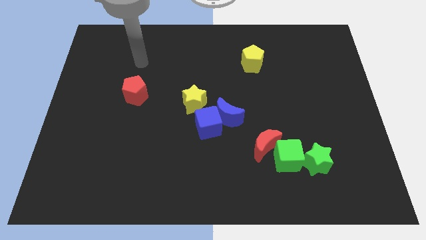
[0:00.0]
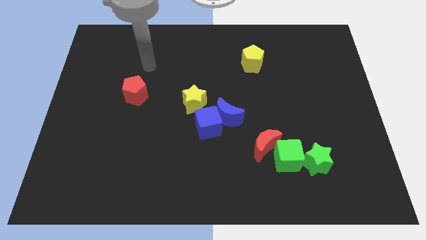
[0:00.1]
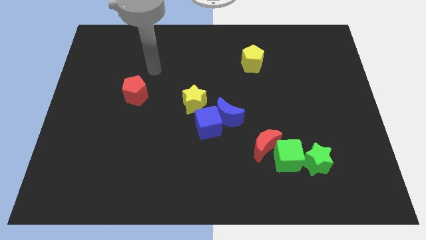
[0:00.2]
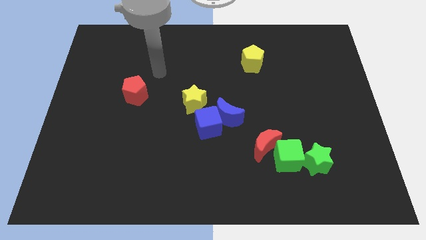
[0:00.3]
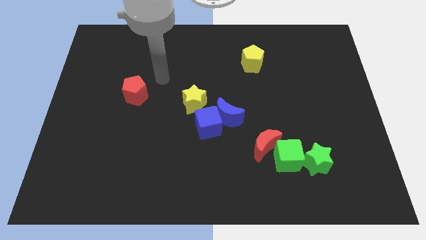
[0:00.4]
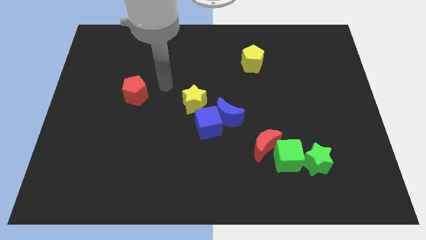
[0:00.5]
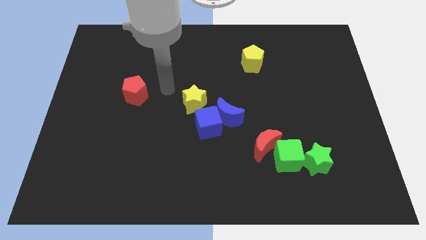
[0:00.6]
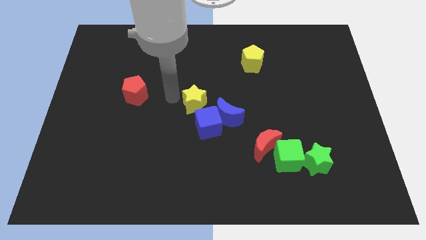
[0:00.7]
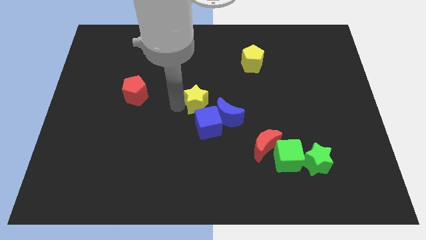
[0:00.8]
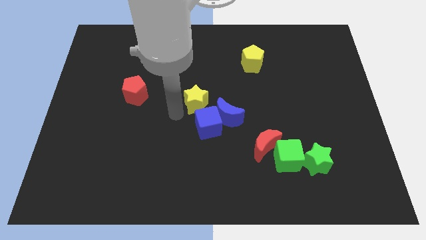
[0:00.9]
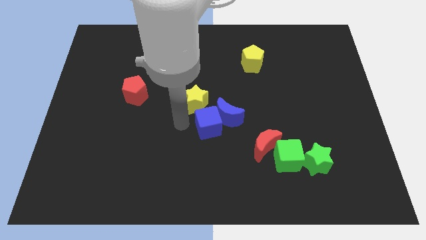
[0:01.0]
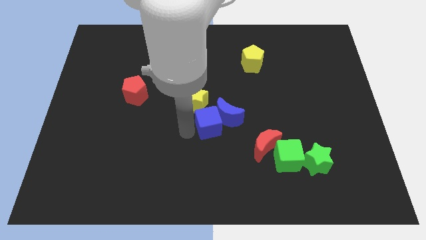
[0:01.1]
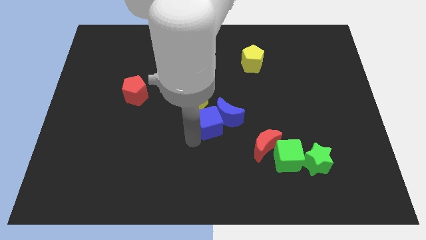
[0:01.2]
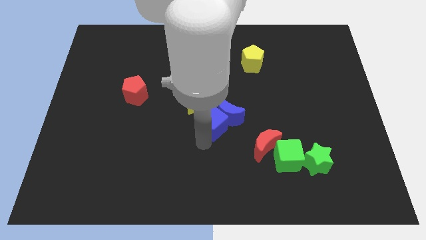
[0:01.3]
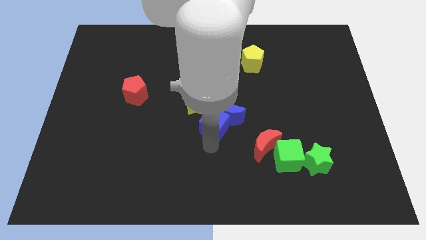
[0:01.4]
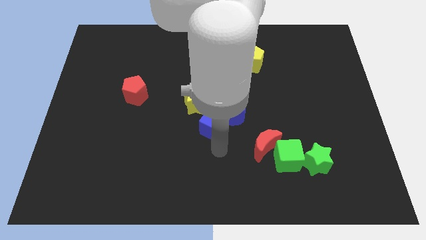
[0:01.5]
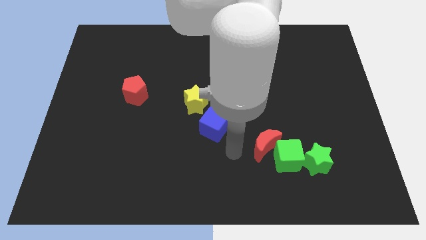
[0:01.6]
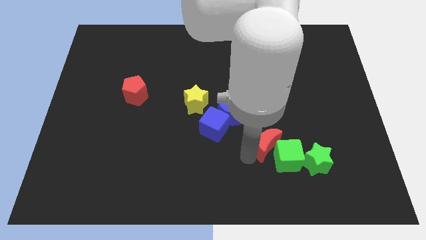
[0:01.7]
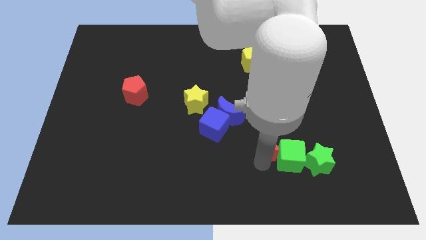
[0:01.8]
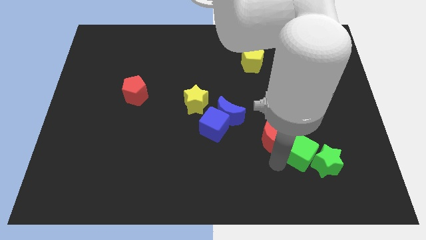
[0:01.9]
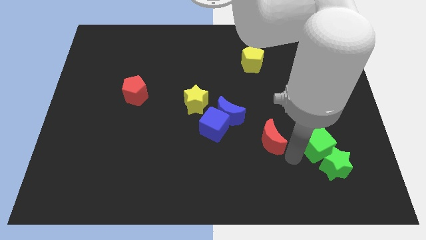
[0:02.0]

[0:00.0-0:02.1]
move the red moon away from the green cube

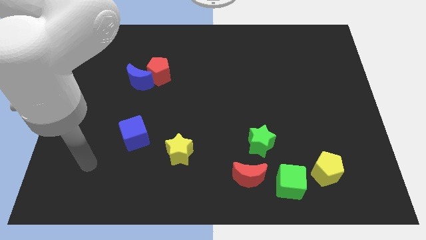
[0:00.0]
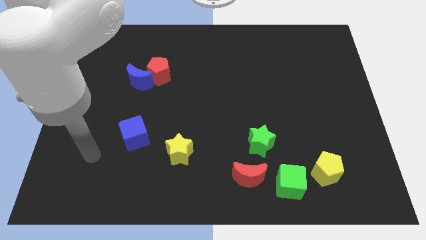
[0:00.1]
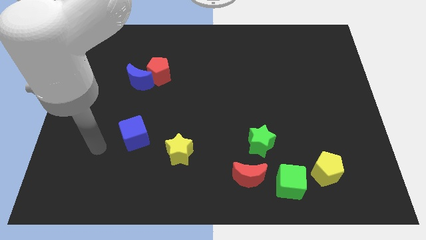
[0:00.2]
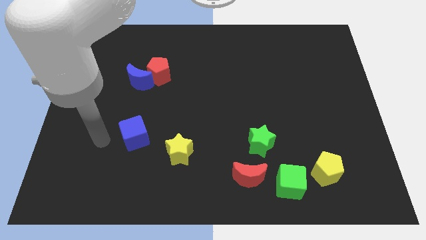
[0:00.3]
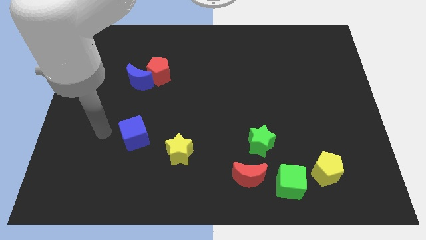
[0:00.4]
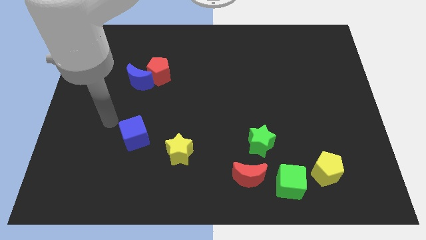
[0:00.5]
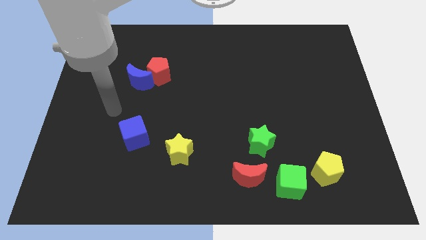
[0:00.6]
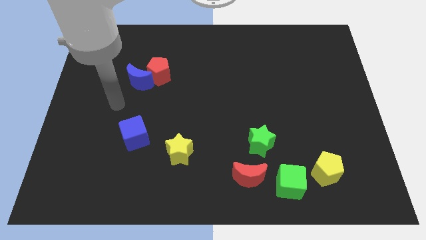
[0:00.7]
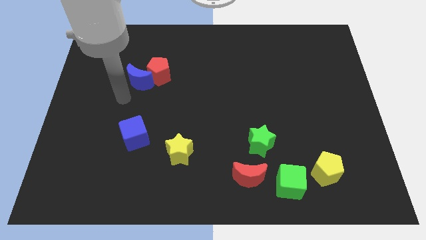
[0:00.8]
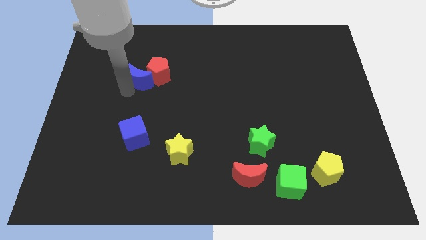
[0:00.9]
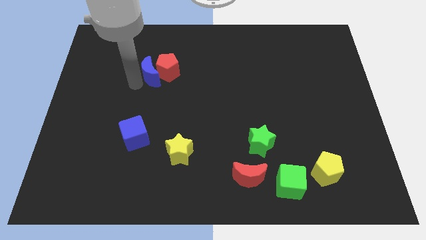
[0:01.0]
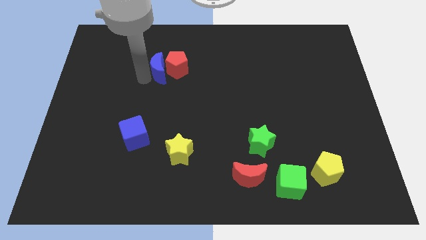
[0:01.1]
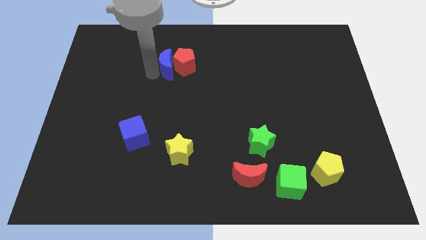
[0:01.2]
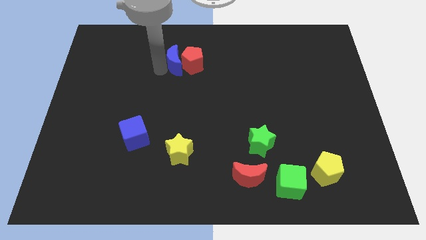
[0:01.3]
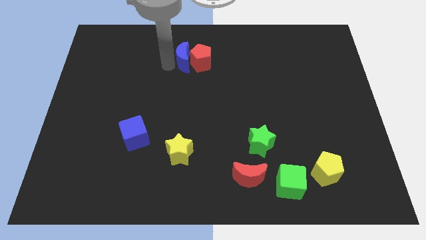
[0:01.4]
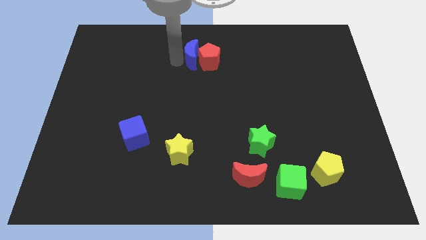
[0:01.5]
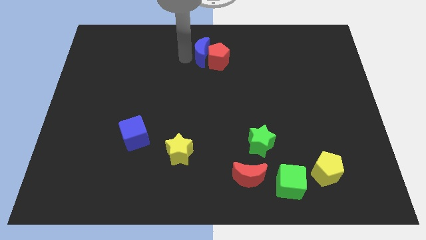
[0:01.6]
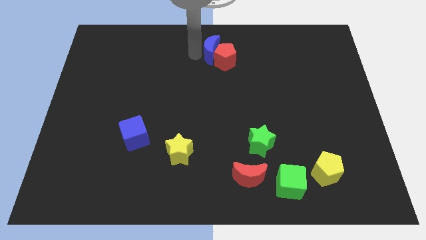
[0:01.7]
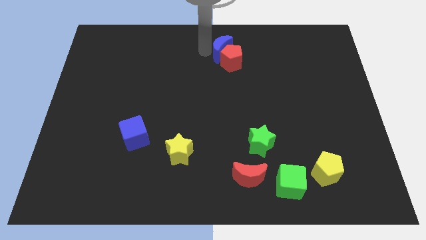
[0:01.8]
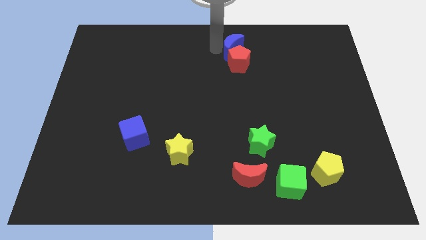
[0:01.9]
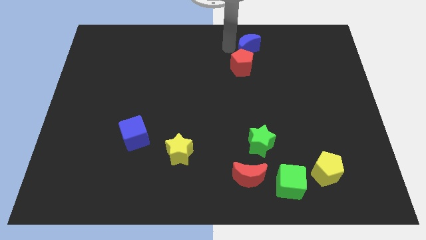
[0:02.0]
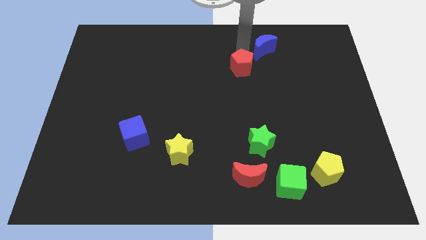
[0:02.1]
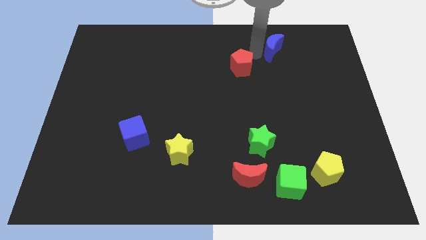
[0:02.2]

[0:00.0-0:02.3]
separate the red pentagon from the blue moon

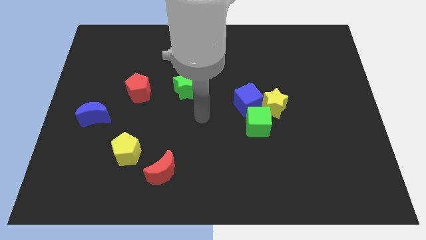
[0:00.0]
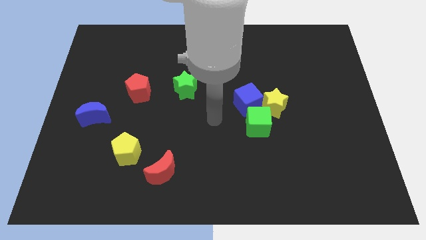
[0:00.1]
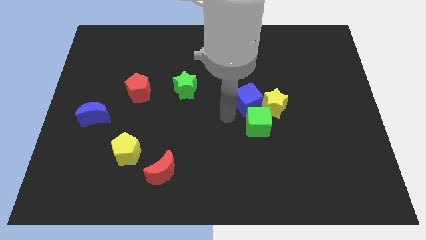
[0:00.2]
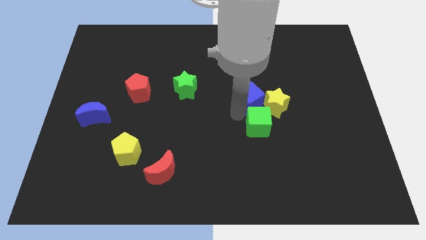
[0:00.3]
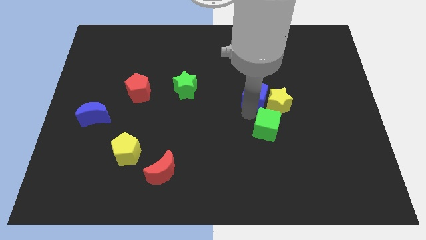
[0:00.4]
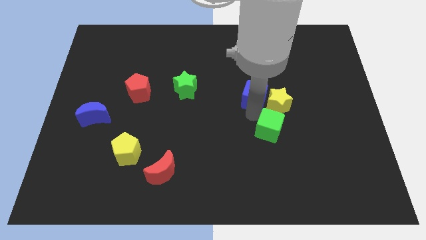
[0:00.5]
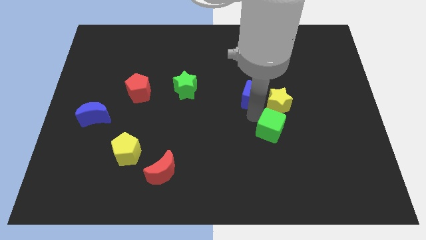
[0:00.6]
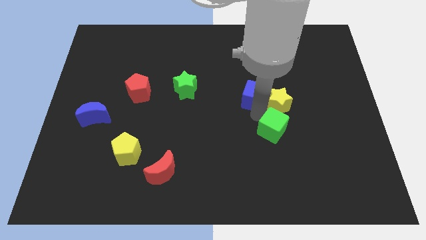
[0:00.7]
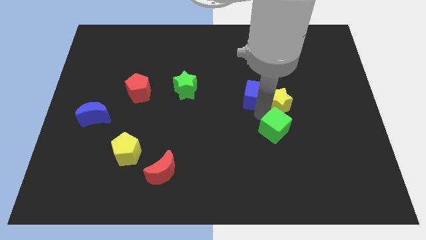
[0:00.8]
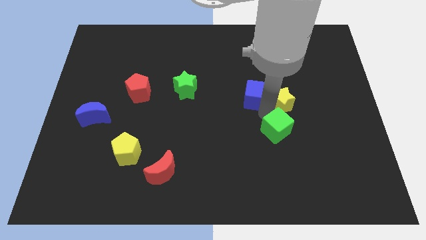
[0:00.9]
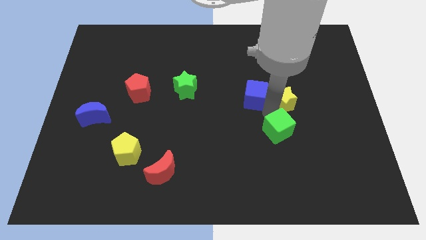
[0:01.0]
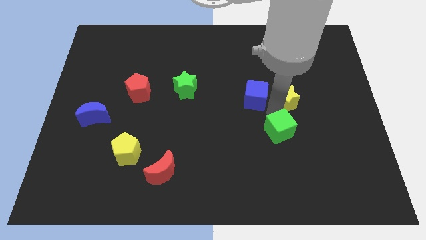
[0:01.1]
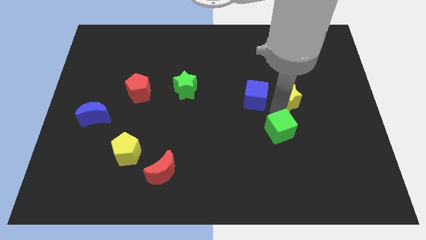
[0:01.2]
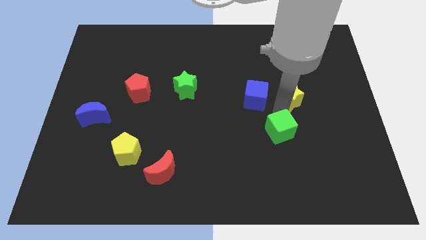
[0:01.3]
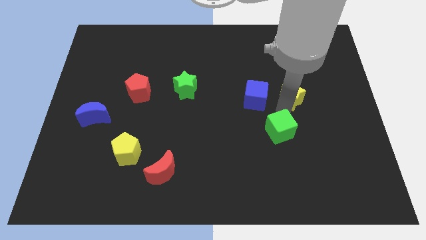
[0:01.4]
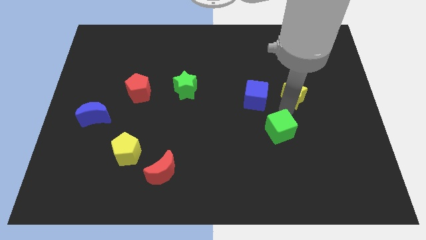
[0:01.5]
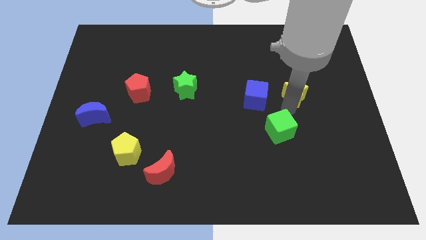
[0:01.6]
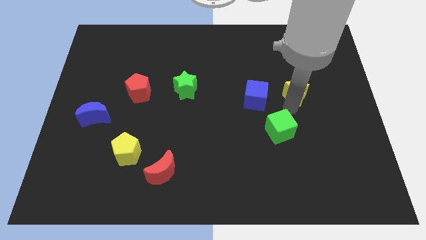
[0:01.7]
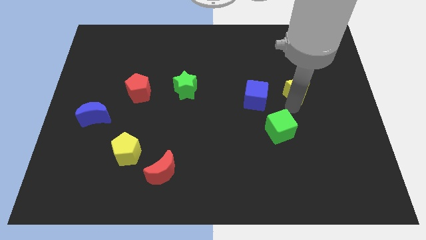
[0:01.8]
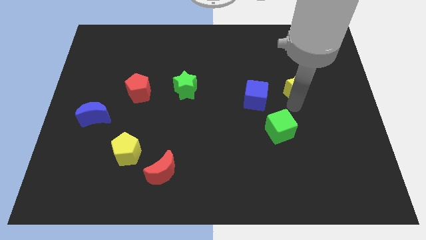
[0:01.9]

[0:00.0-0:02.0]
separate the yellow star from the blue cube and green cube

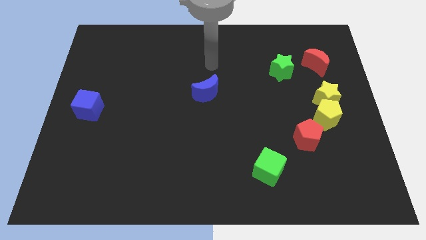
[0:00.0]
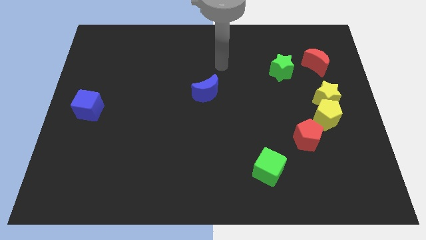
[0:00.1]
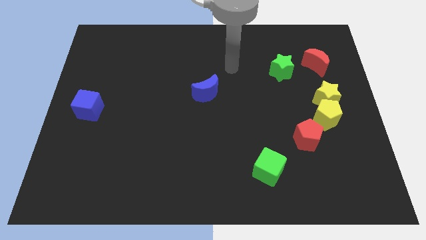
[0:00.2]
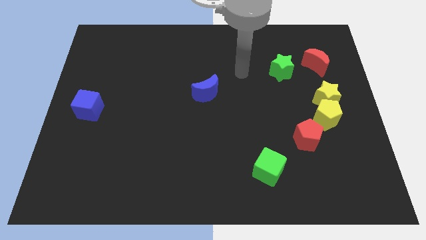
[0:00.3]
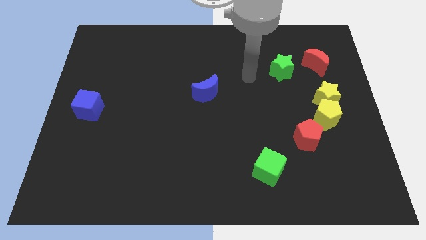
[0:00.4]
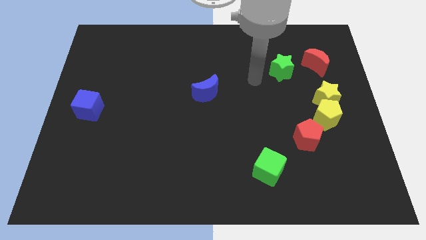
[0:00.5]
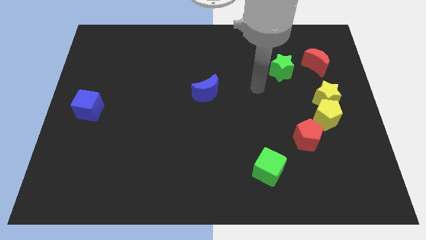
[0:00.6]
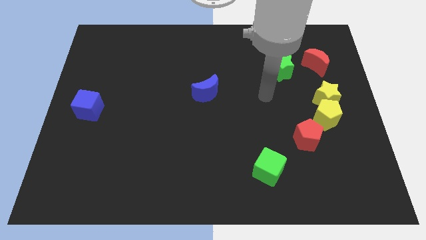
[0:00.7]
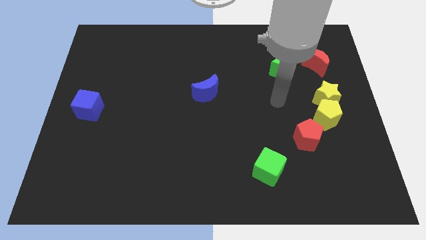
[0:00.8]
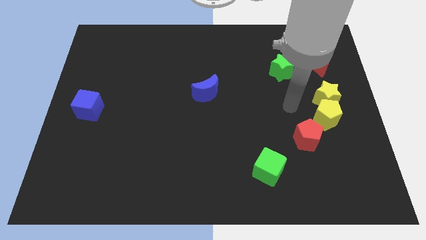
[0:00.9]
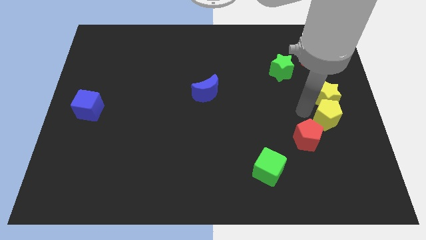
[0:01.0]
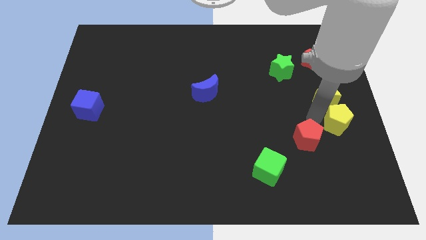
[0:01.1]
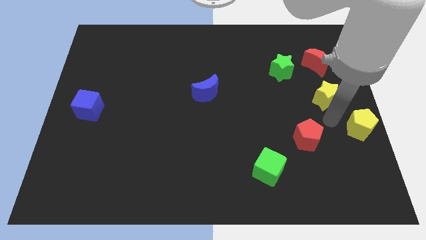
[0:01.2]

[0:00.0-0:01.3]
pull the yellow star apart from the yellow pentagon

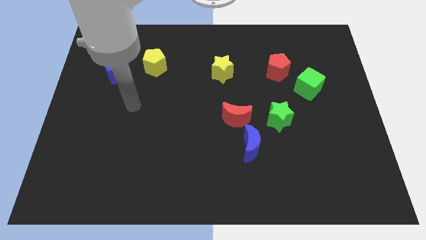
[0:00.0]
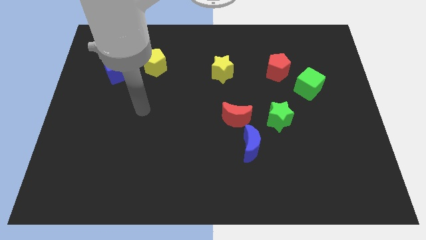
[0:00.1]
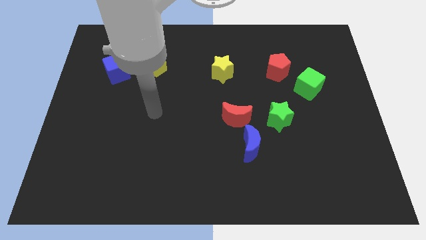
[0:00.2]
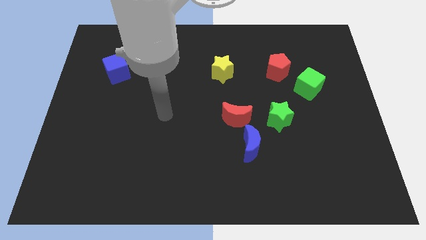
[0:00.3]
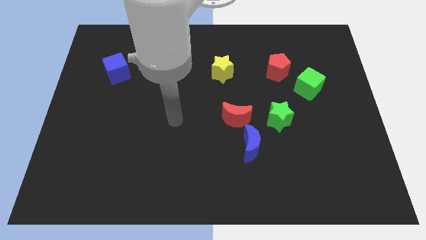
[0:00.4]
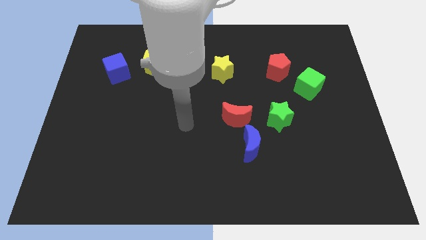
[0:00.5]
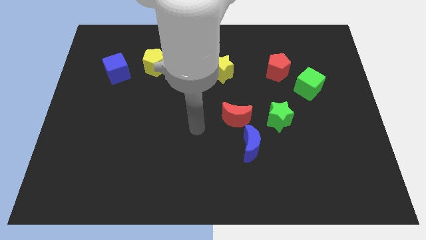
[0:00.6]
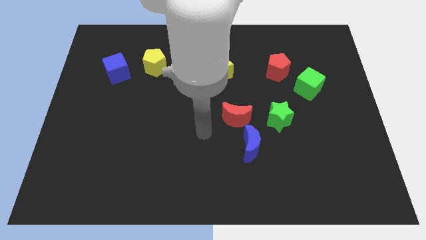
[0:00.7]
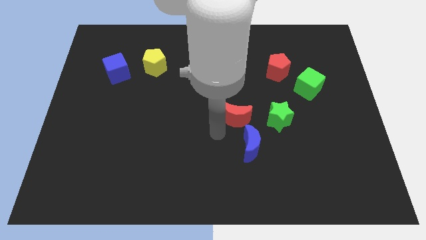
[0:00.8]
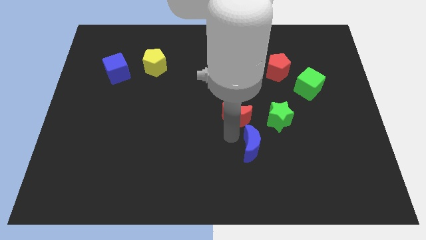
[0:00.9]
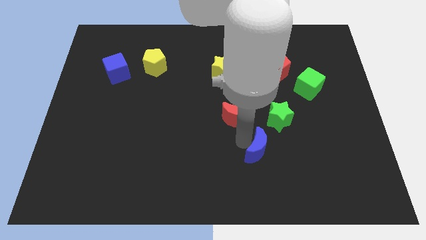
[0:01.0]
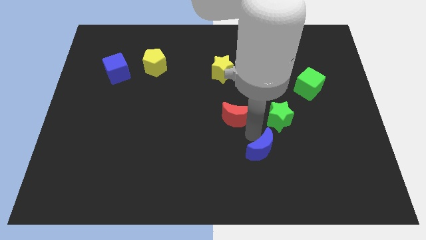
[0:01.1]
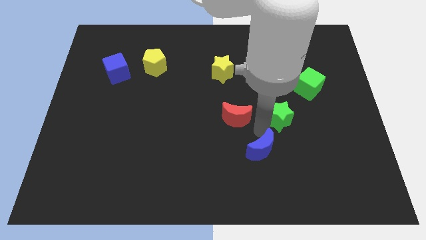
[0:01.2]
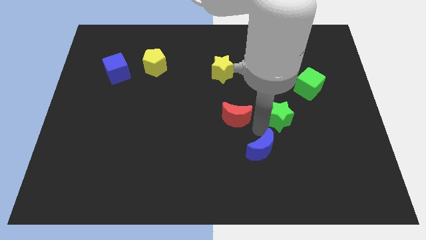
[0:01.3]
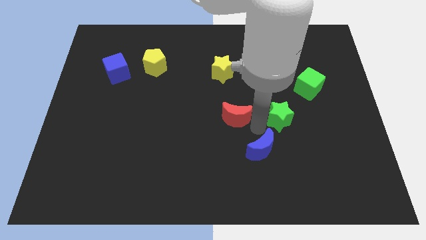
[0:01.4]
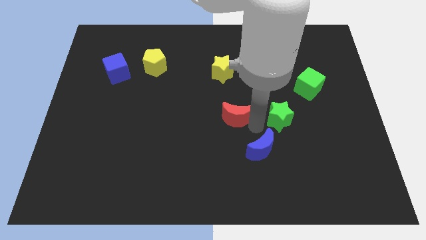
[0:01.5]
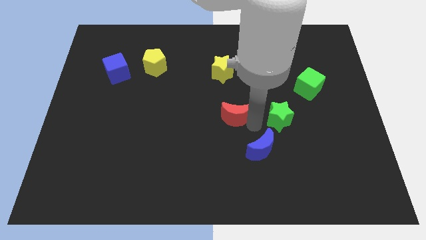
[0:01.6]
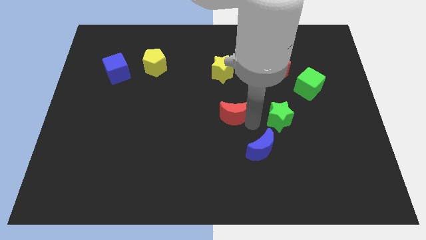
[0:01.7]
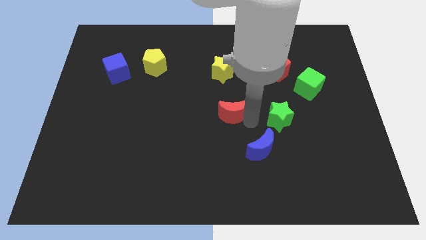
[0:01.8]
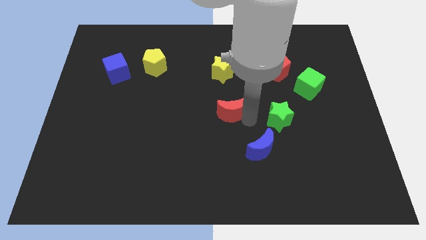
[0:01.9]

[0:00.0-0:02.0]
separate the red moon from the blue moon and green star
